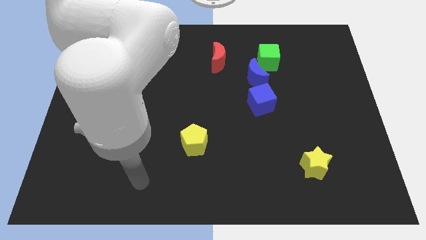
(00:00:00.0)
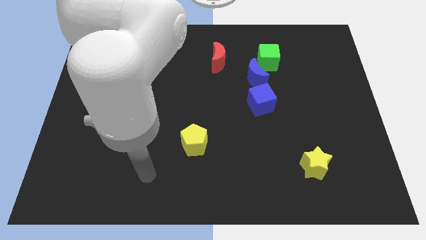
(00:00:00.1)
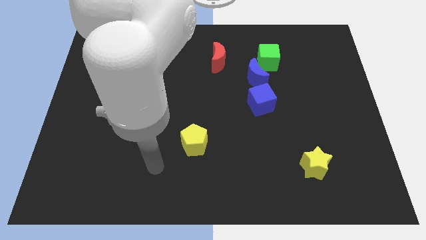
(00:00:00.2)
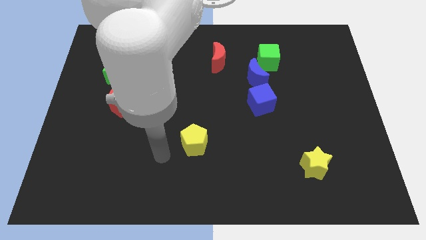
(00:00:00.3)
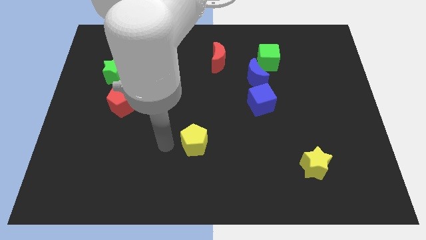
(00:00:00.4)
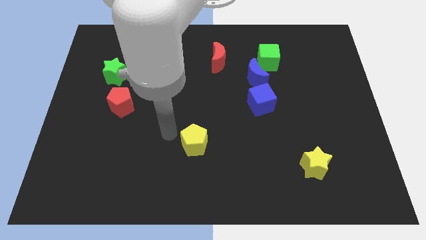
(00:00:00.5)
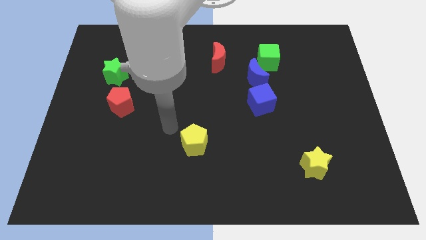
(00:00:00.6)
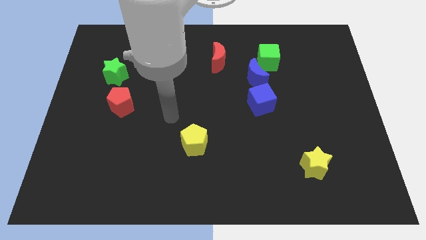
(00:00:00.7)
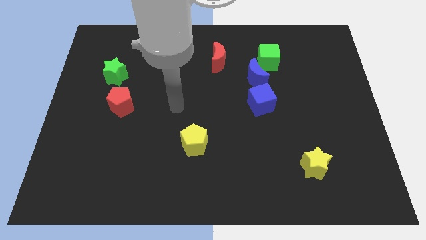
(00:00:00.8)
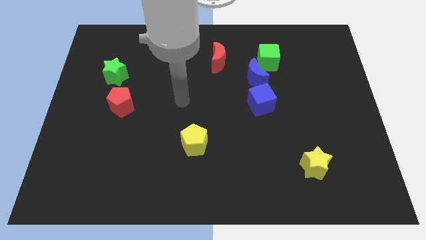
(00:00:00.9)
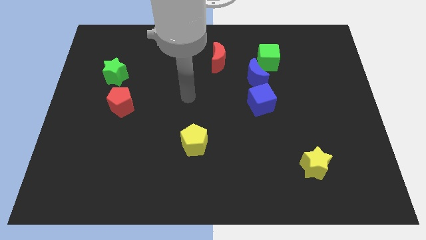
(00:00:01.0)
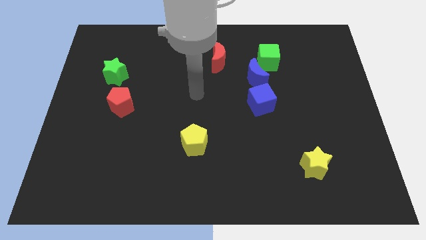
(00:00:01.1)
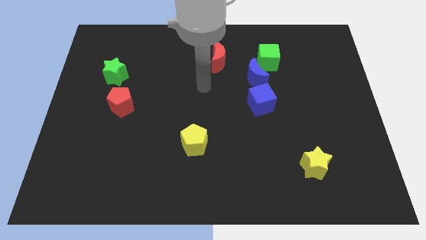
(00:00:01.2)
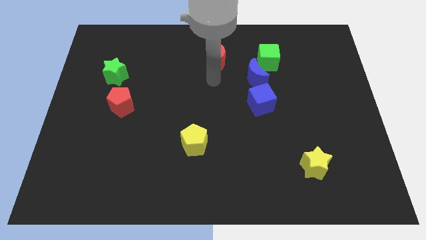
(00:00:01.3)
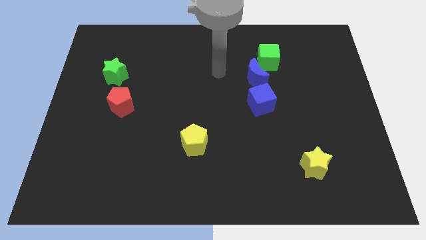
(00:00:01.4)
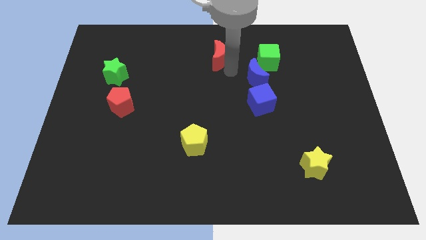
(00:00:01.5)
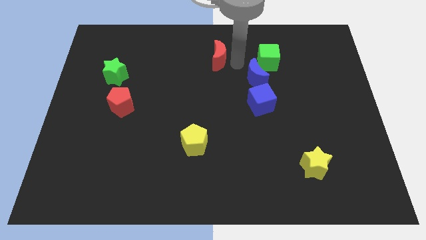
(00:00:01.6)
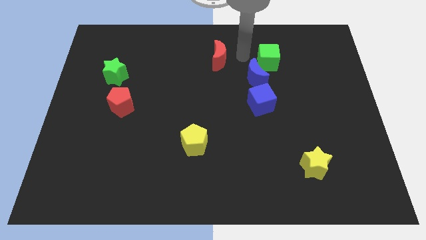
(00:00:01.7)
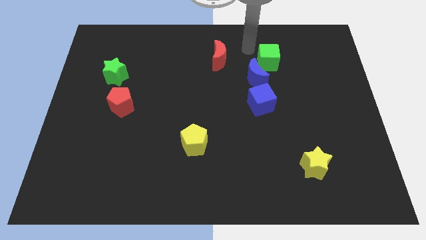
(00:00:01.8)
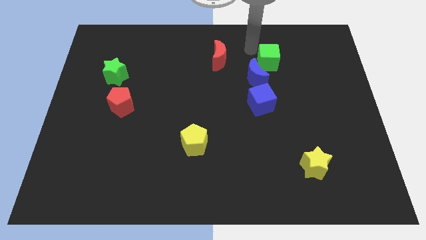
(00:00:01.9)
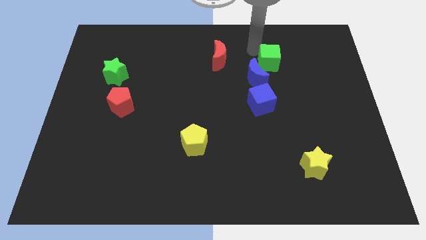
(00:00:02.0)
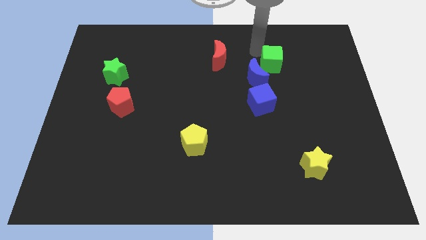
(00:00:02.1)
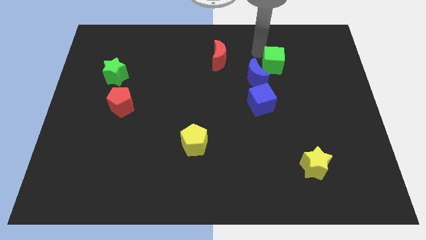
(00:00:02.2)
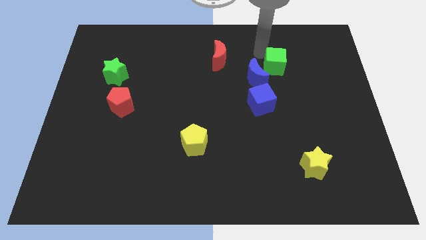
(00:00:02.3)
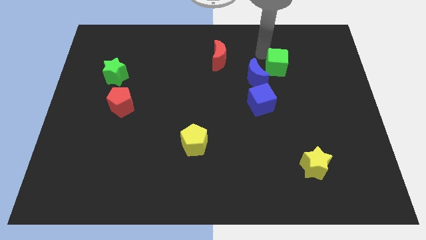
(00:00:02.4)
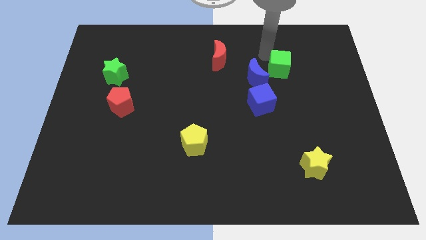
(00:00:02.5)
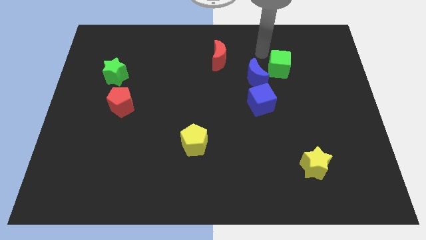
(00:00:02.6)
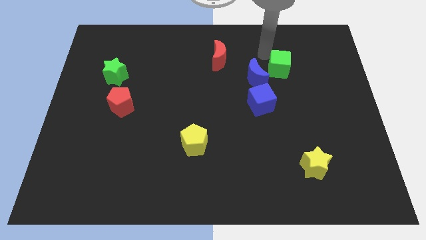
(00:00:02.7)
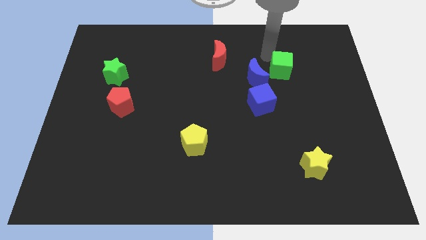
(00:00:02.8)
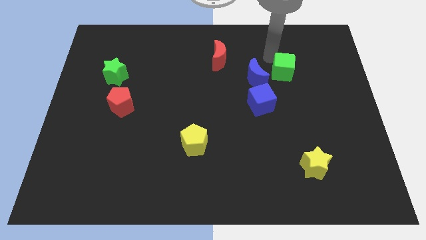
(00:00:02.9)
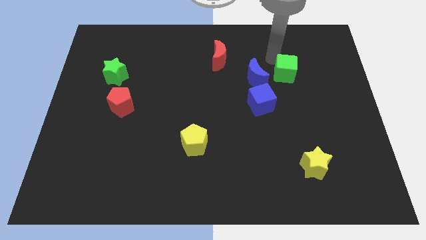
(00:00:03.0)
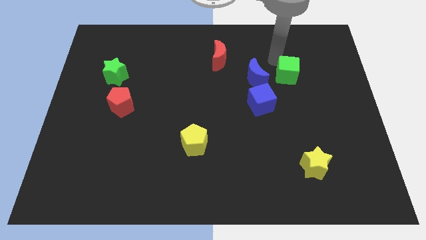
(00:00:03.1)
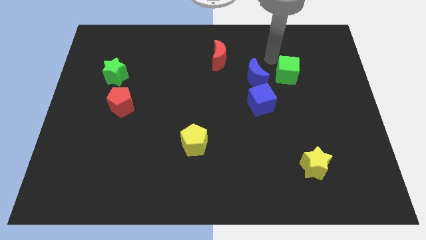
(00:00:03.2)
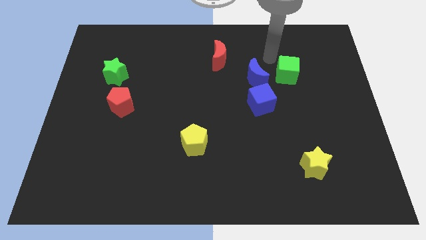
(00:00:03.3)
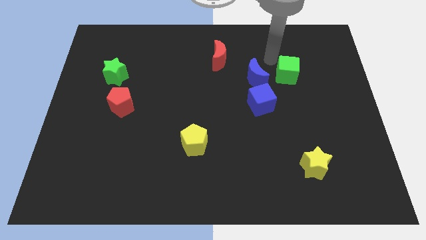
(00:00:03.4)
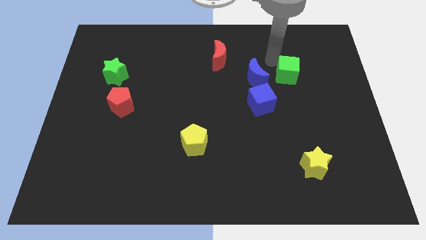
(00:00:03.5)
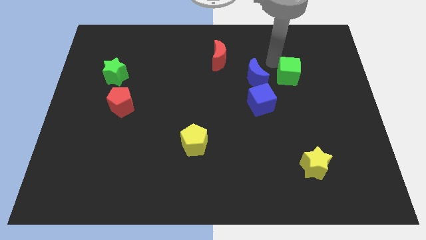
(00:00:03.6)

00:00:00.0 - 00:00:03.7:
slide the green cube a little bit down and then right

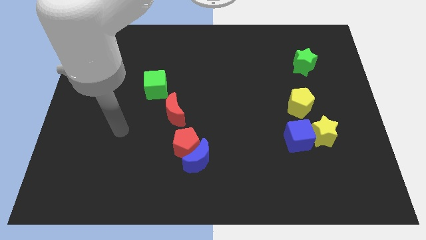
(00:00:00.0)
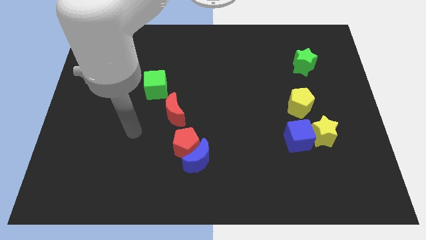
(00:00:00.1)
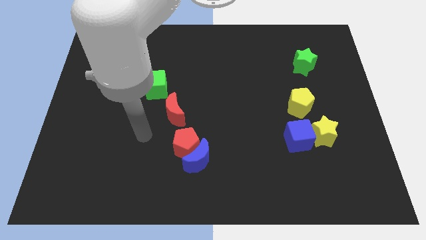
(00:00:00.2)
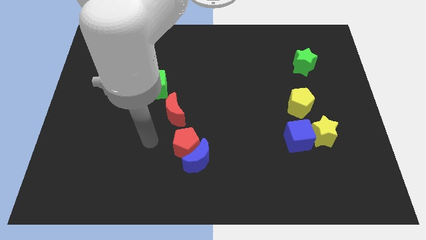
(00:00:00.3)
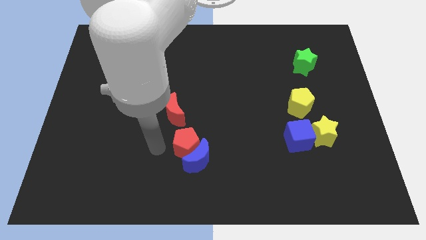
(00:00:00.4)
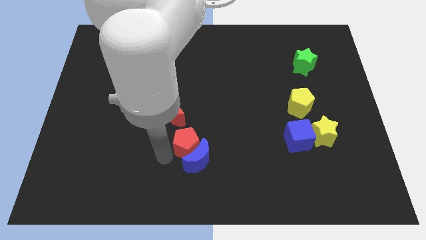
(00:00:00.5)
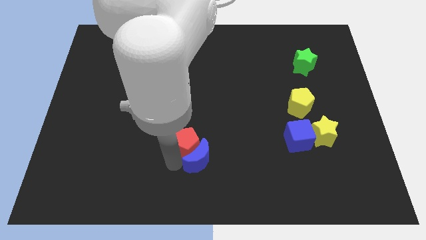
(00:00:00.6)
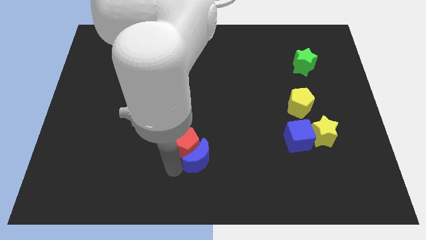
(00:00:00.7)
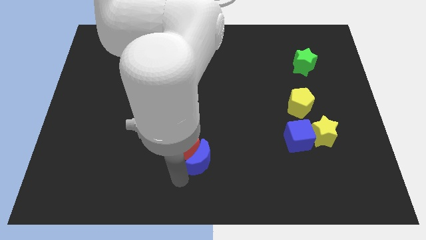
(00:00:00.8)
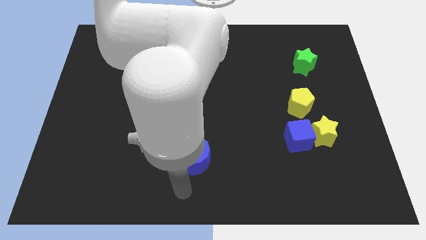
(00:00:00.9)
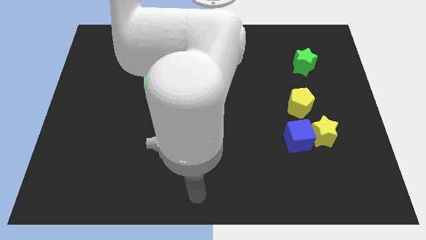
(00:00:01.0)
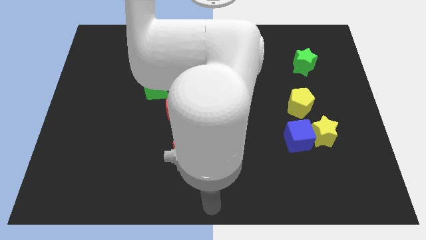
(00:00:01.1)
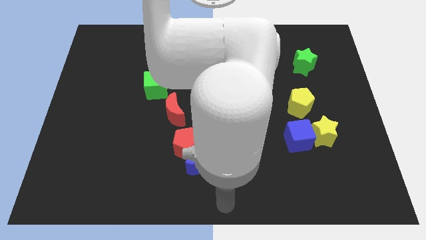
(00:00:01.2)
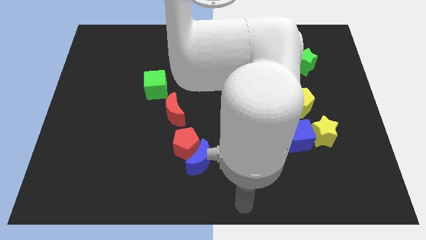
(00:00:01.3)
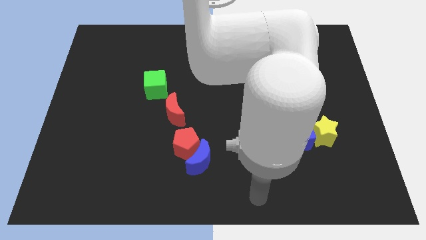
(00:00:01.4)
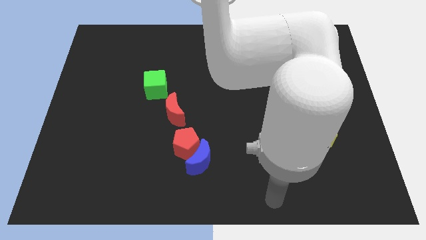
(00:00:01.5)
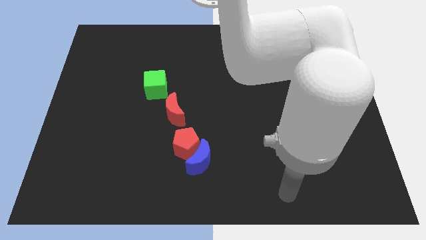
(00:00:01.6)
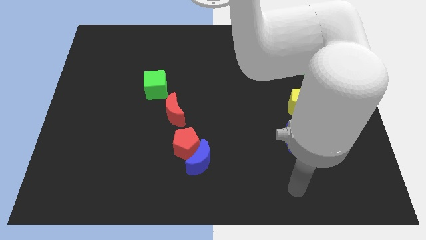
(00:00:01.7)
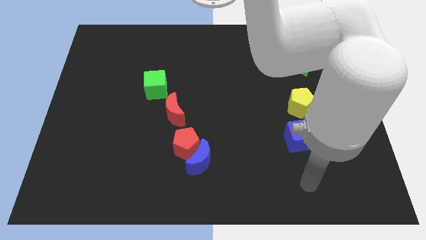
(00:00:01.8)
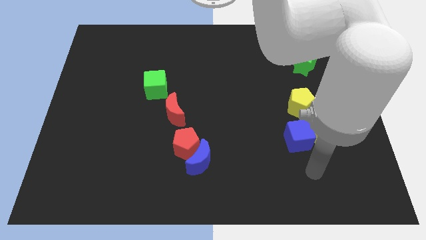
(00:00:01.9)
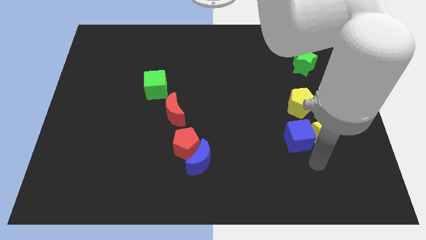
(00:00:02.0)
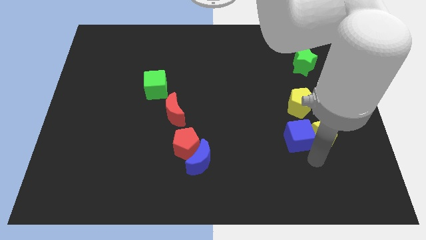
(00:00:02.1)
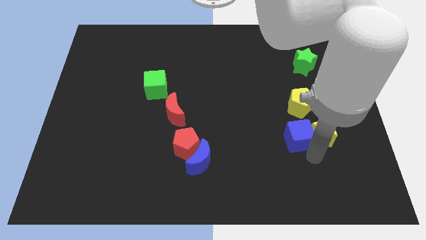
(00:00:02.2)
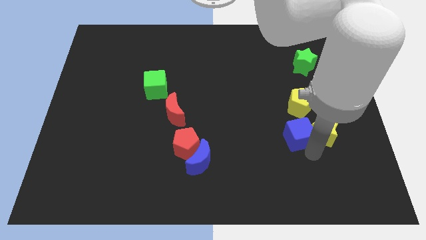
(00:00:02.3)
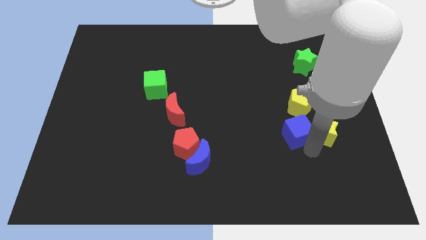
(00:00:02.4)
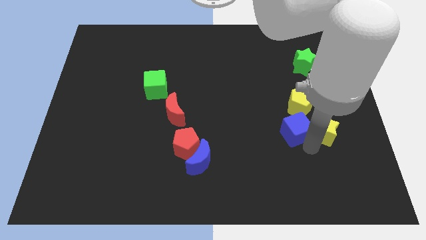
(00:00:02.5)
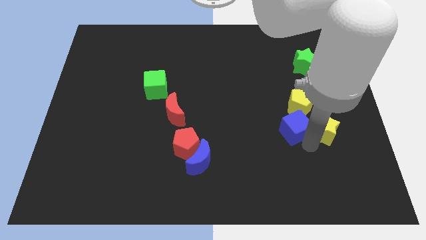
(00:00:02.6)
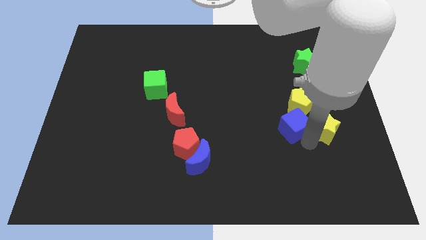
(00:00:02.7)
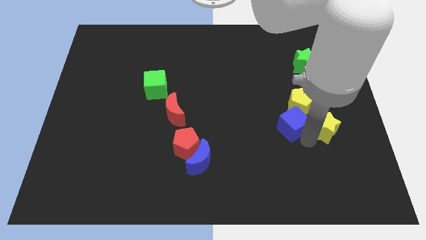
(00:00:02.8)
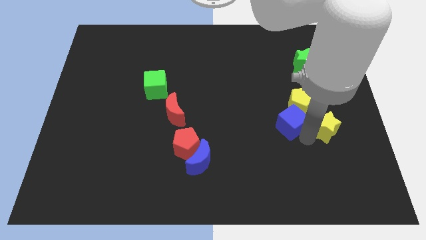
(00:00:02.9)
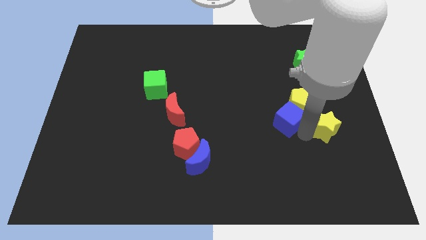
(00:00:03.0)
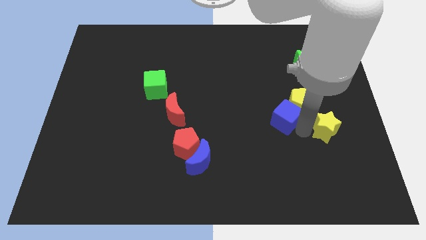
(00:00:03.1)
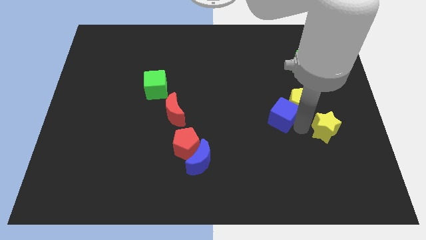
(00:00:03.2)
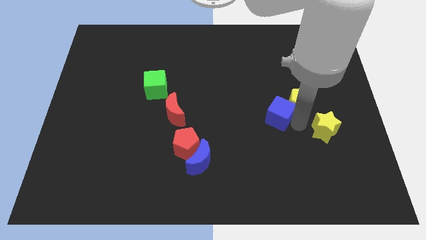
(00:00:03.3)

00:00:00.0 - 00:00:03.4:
slide the blue cube up and then left slightly

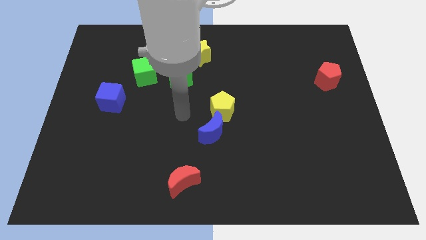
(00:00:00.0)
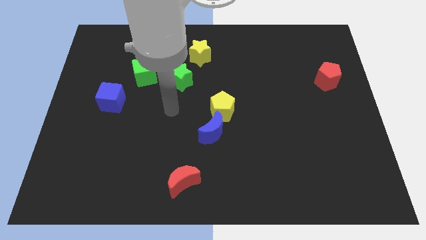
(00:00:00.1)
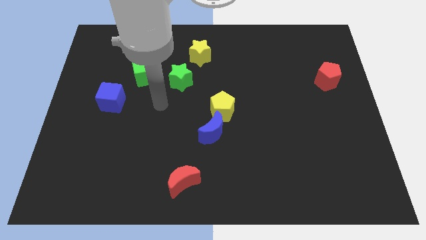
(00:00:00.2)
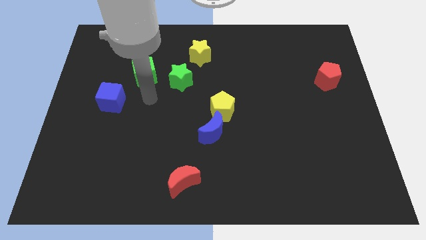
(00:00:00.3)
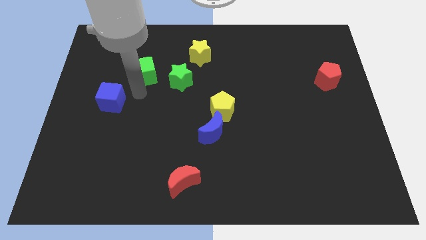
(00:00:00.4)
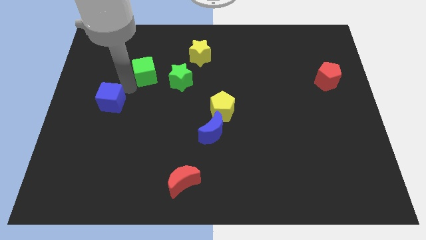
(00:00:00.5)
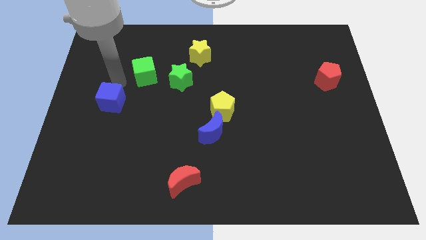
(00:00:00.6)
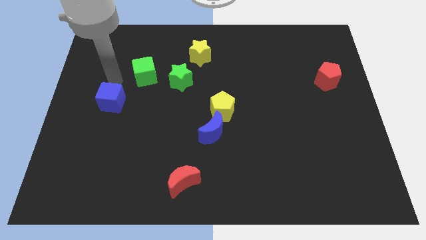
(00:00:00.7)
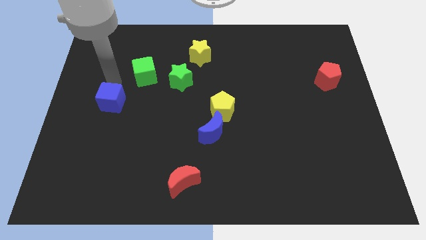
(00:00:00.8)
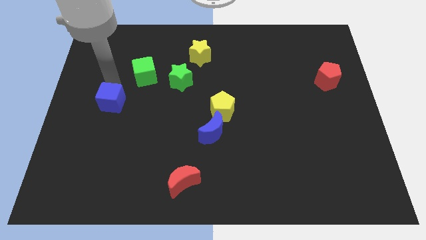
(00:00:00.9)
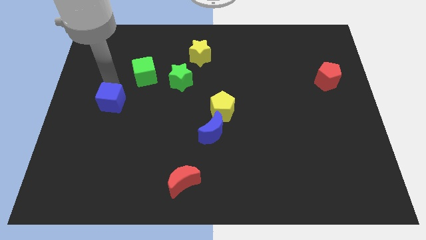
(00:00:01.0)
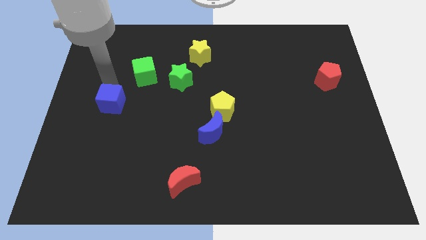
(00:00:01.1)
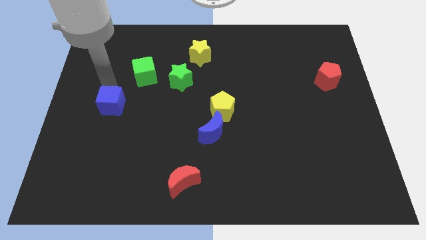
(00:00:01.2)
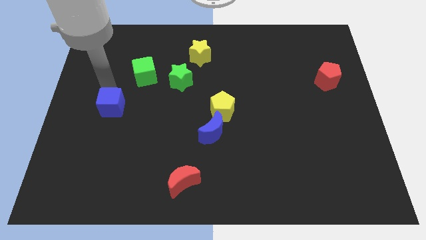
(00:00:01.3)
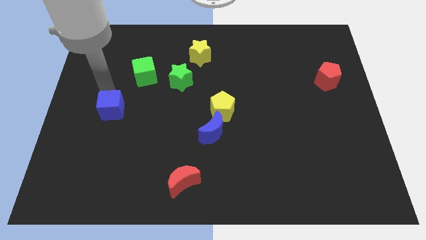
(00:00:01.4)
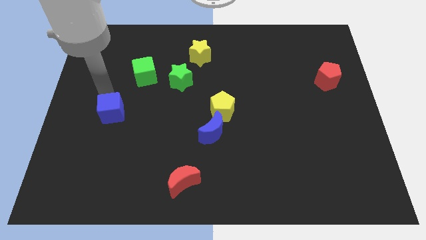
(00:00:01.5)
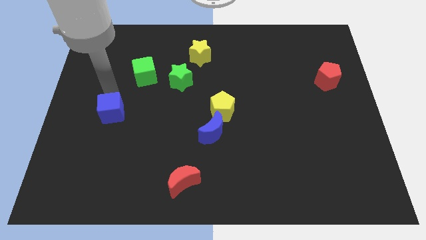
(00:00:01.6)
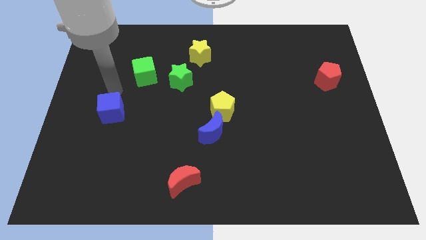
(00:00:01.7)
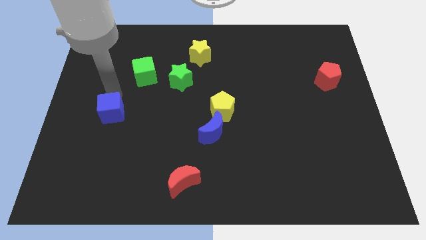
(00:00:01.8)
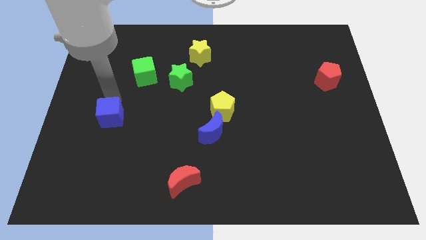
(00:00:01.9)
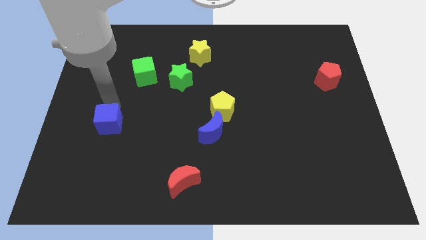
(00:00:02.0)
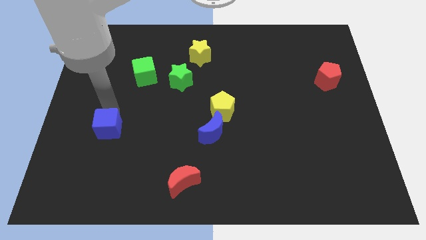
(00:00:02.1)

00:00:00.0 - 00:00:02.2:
slightly push the blue cube down
